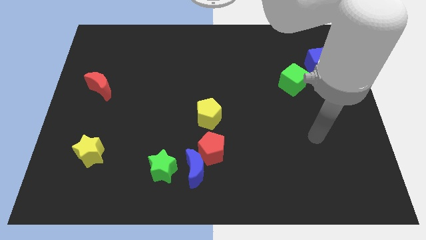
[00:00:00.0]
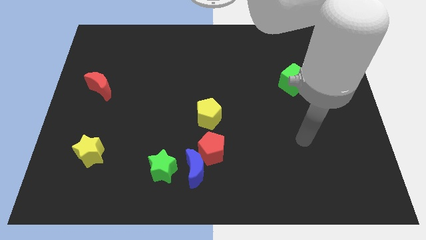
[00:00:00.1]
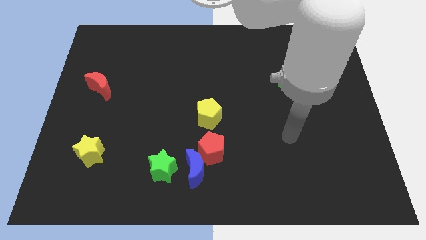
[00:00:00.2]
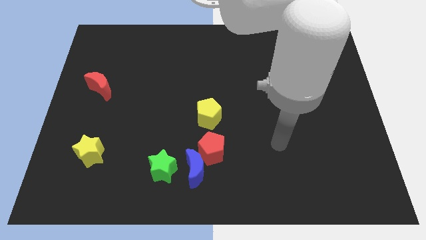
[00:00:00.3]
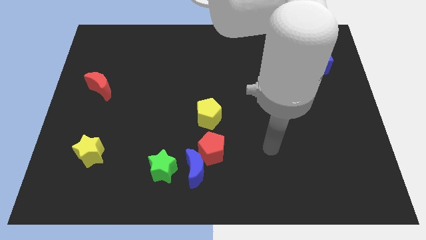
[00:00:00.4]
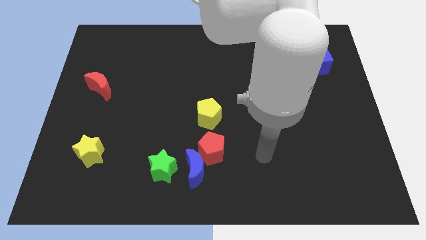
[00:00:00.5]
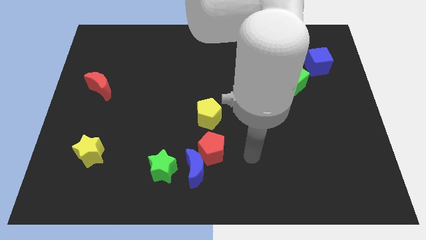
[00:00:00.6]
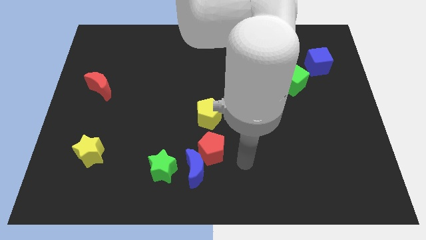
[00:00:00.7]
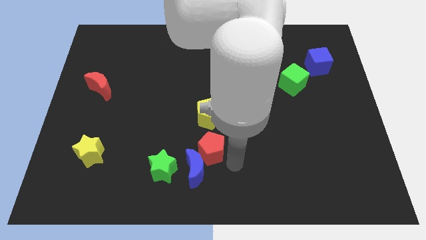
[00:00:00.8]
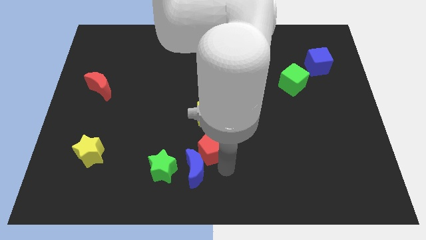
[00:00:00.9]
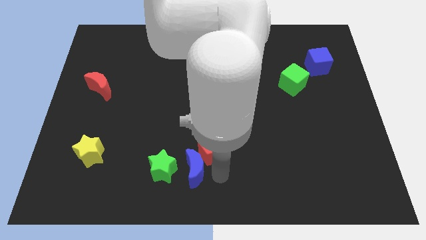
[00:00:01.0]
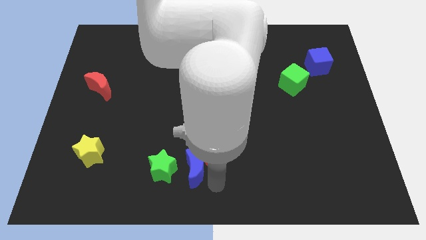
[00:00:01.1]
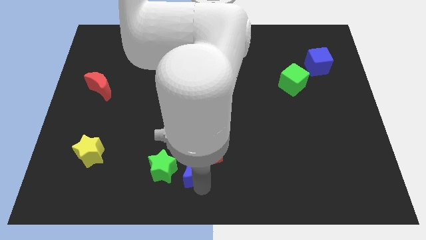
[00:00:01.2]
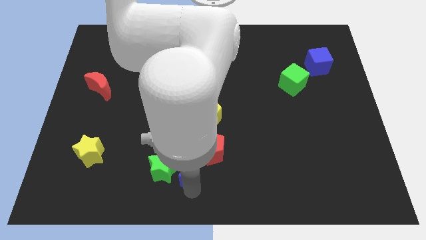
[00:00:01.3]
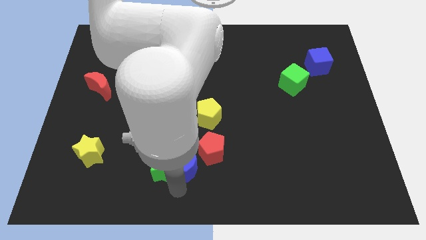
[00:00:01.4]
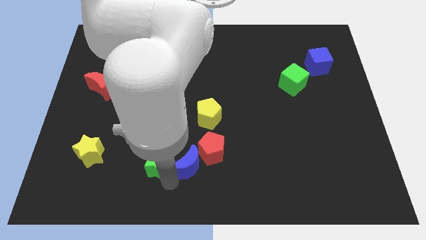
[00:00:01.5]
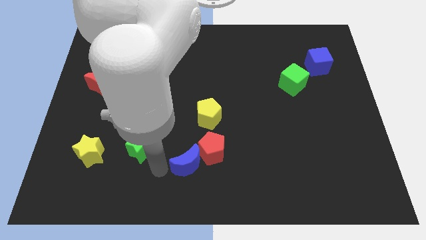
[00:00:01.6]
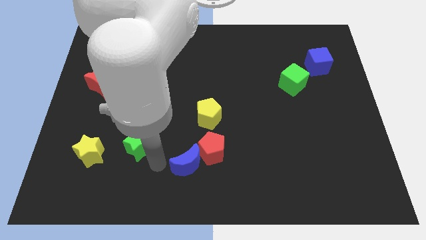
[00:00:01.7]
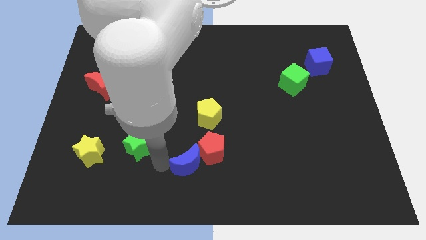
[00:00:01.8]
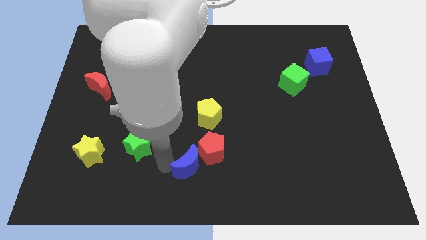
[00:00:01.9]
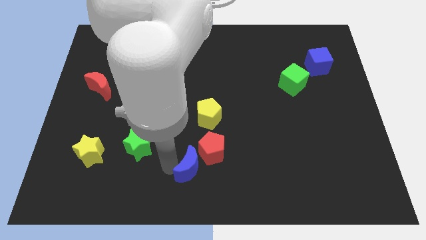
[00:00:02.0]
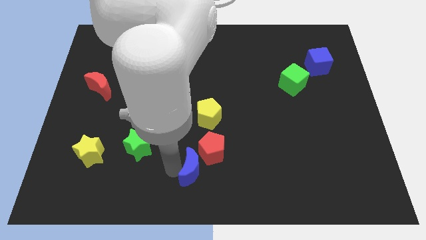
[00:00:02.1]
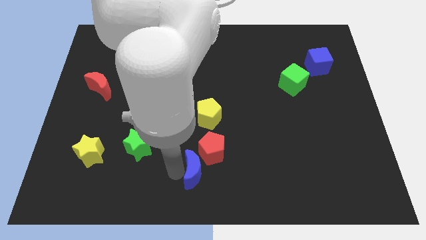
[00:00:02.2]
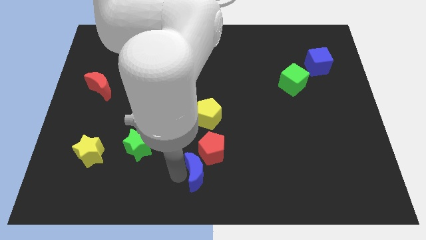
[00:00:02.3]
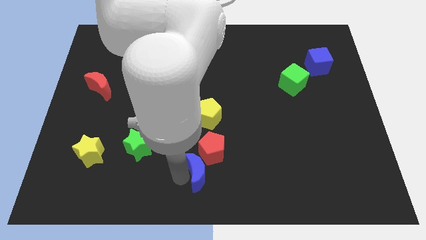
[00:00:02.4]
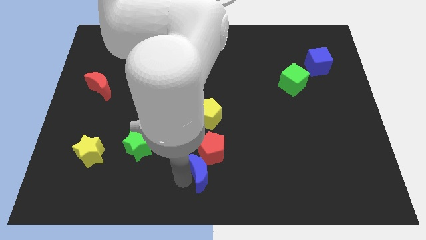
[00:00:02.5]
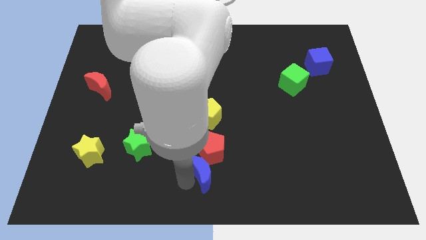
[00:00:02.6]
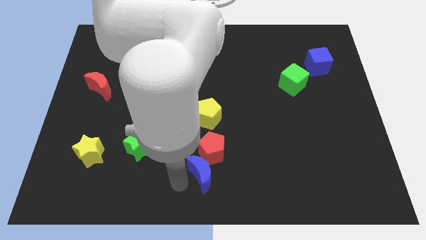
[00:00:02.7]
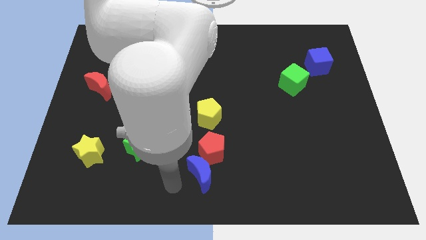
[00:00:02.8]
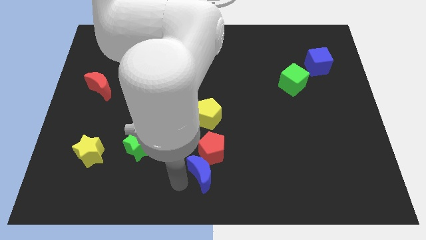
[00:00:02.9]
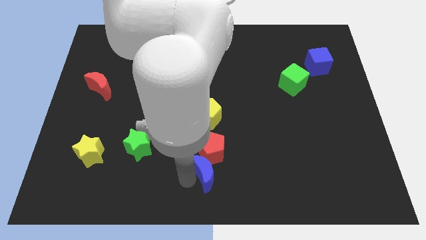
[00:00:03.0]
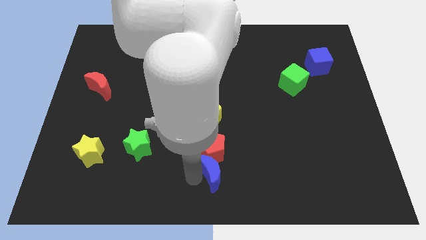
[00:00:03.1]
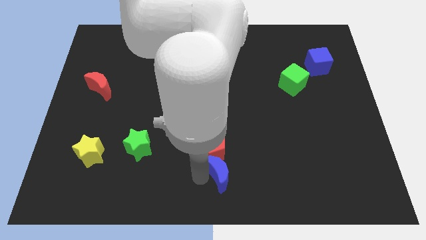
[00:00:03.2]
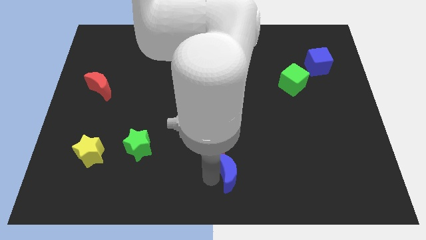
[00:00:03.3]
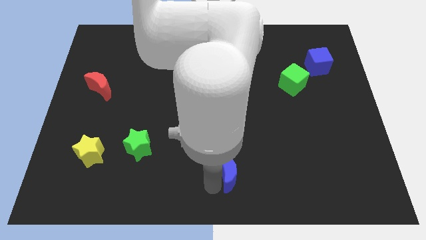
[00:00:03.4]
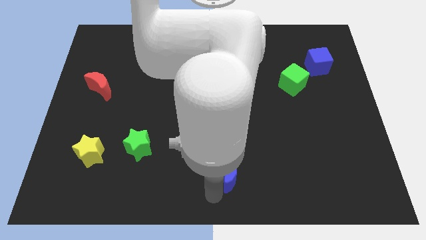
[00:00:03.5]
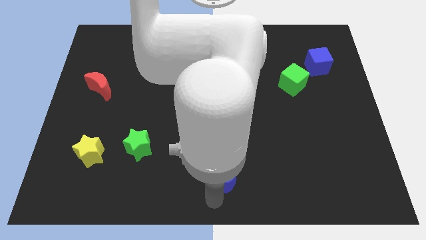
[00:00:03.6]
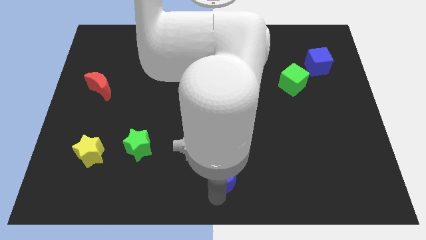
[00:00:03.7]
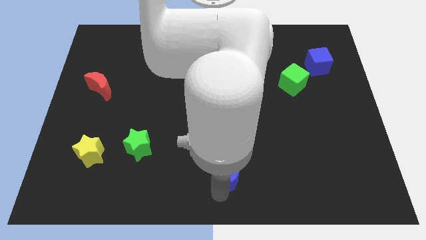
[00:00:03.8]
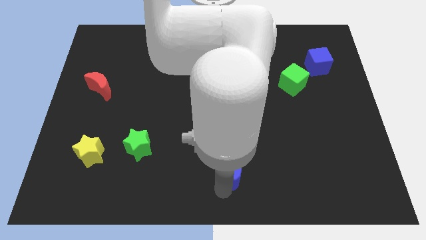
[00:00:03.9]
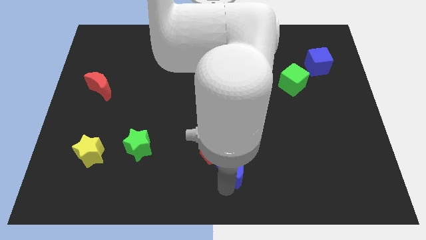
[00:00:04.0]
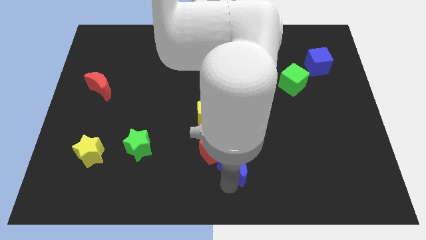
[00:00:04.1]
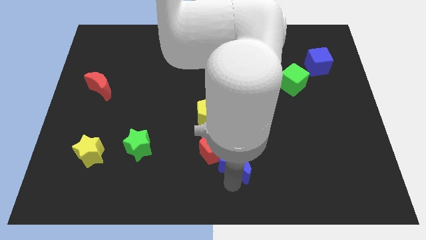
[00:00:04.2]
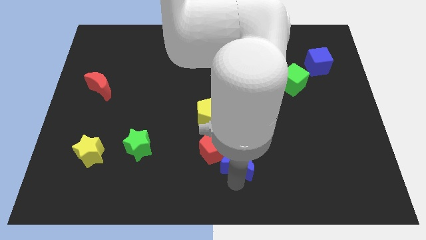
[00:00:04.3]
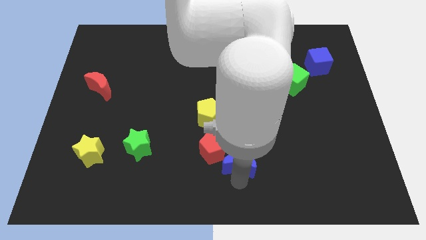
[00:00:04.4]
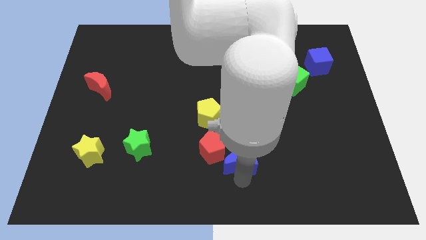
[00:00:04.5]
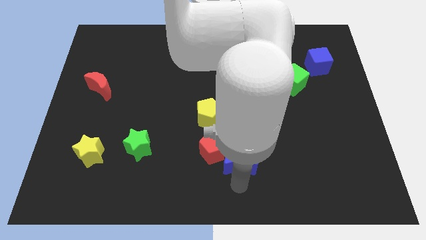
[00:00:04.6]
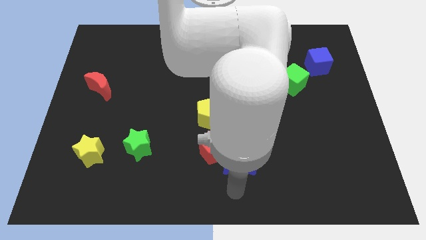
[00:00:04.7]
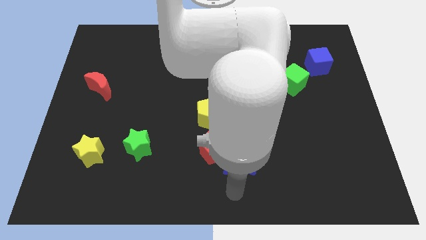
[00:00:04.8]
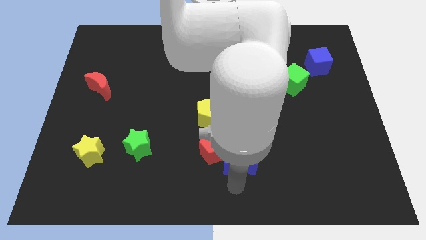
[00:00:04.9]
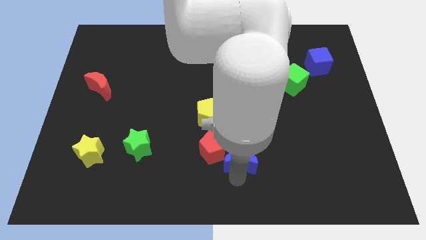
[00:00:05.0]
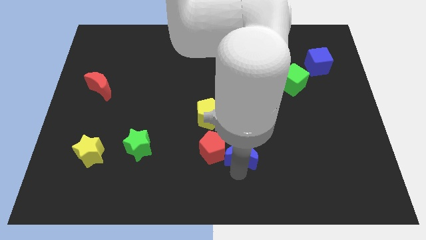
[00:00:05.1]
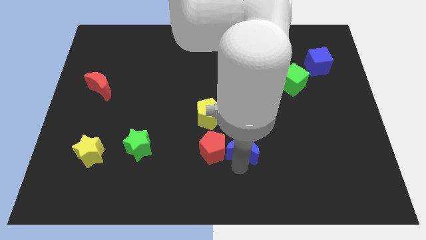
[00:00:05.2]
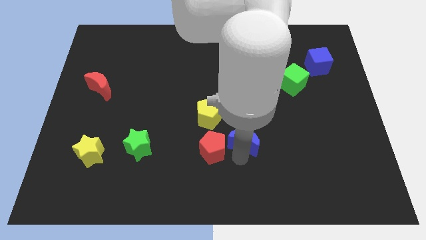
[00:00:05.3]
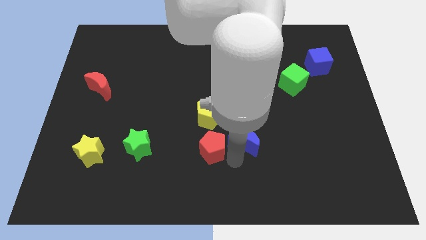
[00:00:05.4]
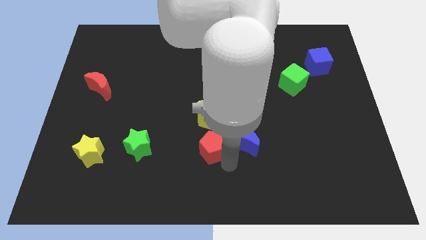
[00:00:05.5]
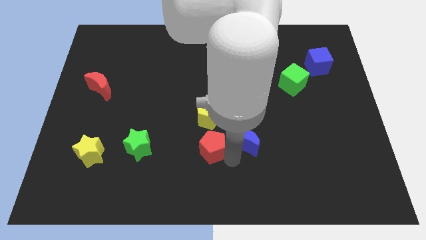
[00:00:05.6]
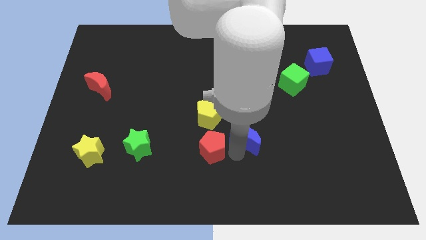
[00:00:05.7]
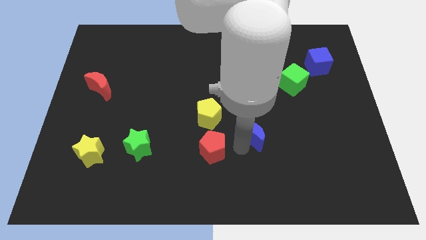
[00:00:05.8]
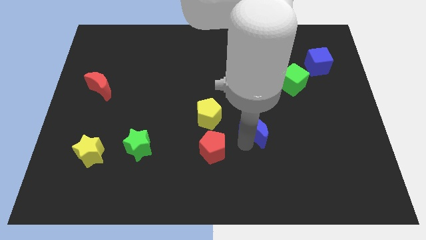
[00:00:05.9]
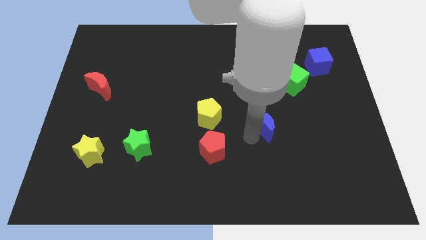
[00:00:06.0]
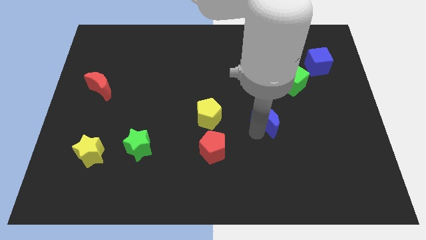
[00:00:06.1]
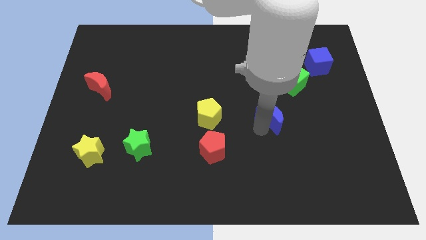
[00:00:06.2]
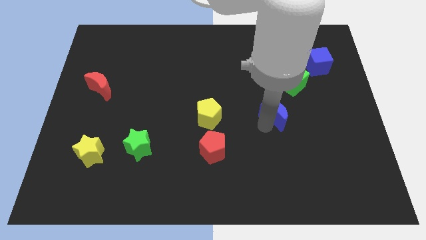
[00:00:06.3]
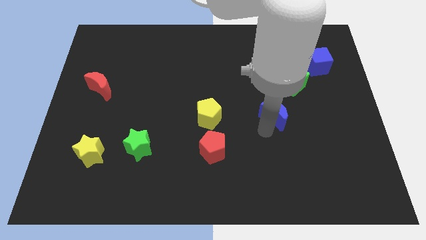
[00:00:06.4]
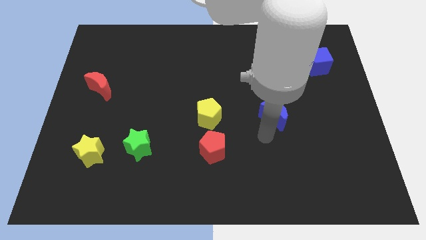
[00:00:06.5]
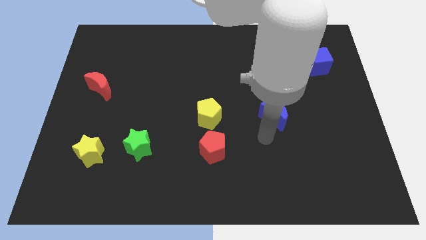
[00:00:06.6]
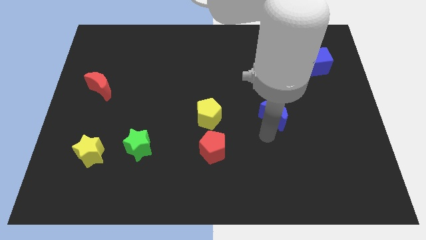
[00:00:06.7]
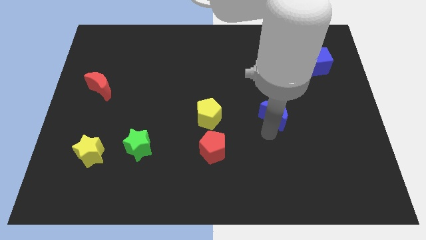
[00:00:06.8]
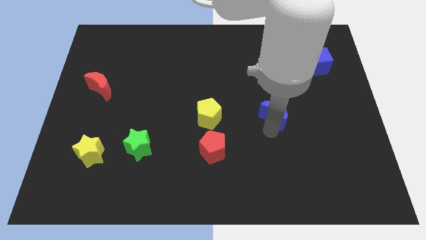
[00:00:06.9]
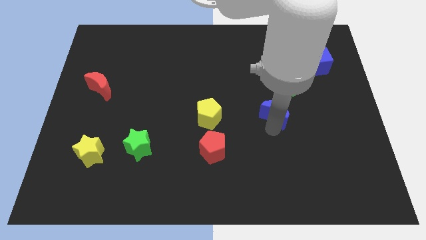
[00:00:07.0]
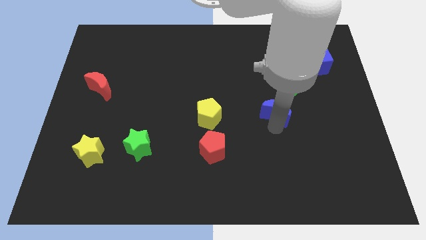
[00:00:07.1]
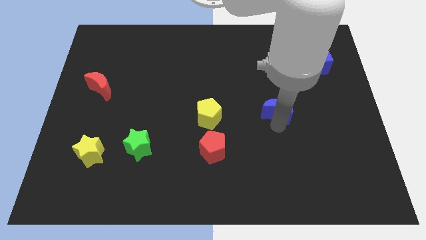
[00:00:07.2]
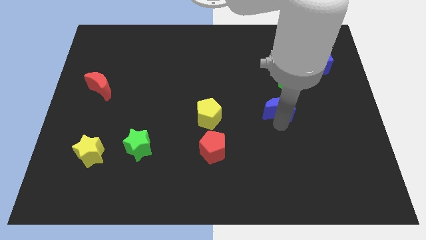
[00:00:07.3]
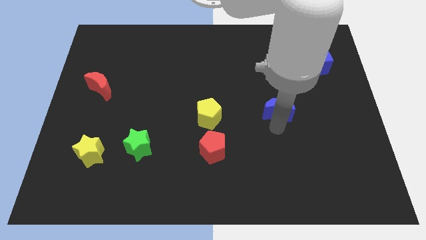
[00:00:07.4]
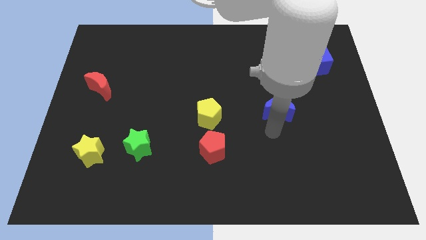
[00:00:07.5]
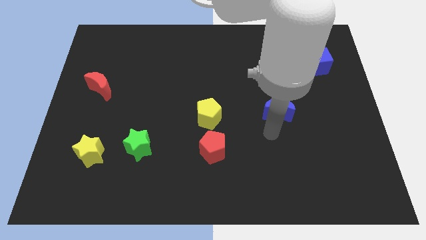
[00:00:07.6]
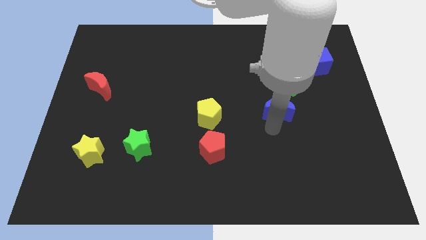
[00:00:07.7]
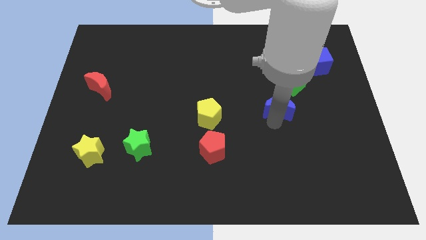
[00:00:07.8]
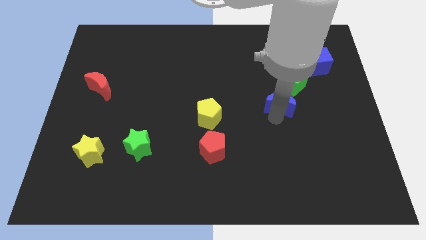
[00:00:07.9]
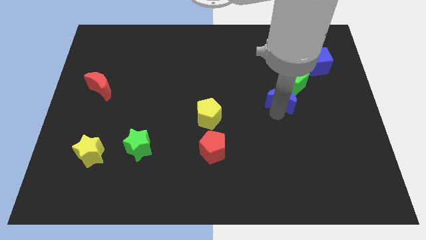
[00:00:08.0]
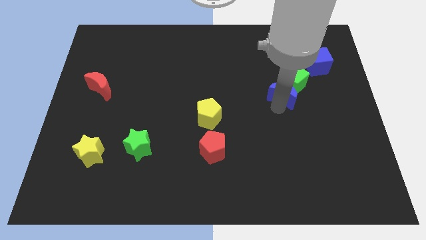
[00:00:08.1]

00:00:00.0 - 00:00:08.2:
slide the blue moon next to the green cube
